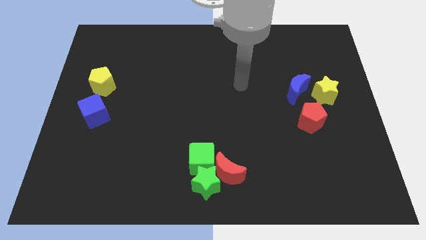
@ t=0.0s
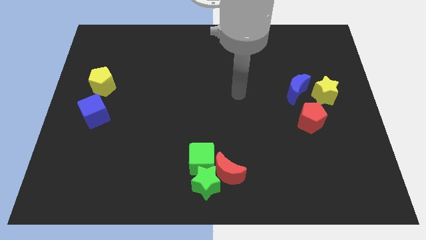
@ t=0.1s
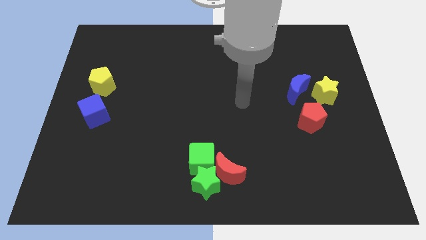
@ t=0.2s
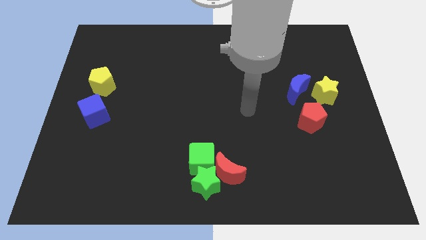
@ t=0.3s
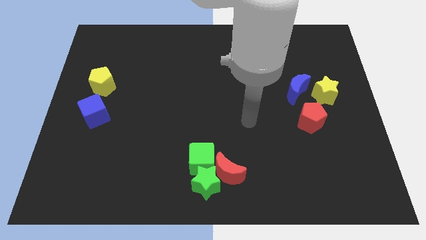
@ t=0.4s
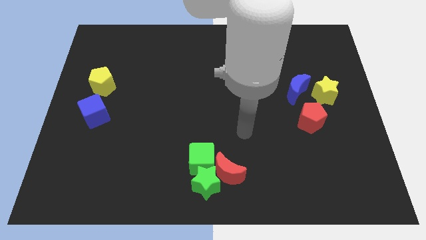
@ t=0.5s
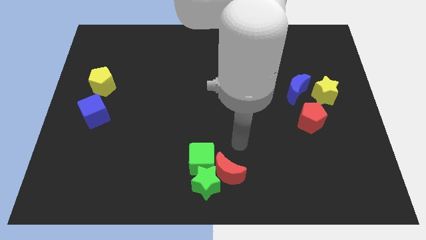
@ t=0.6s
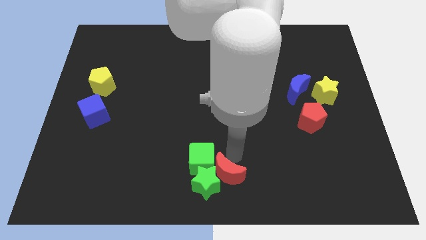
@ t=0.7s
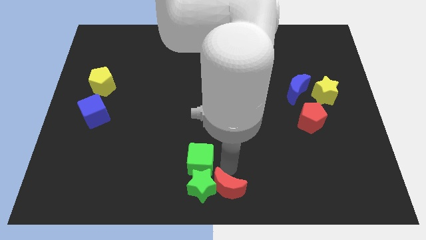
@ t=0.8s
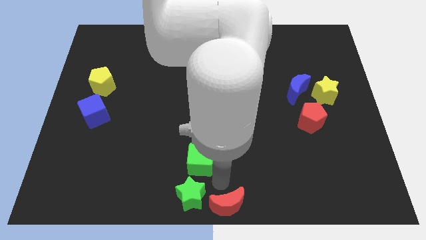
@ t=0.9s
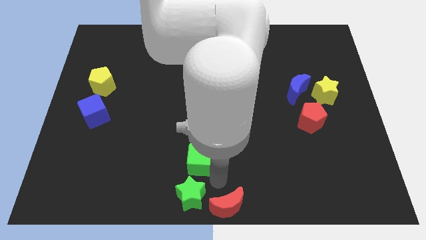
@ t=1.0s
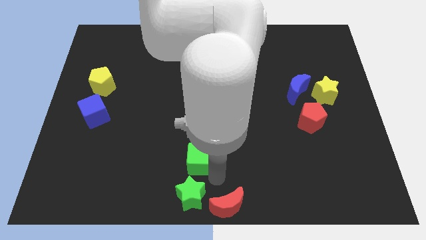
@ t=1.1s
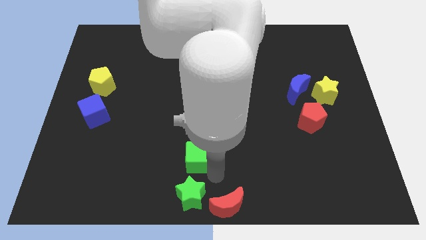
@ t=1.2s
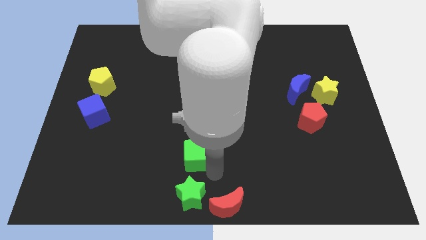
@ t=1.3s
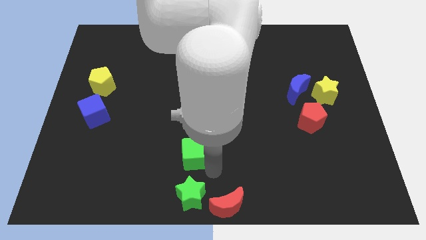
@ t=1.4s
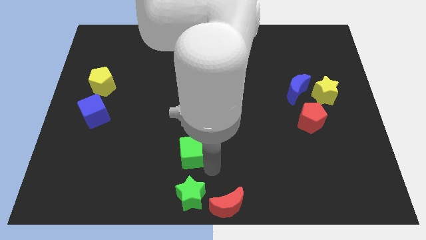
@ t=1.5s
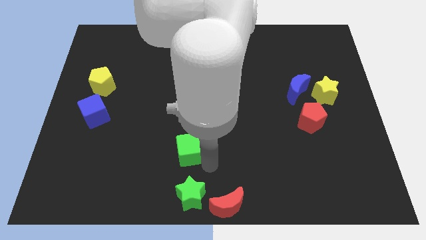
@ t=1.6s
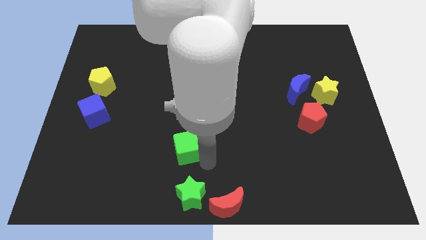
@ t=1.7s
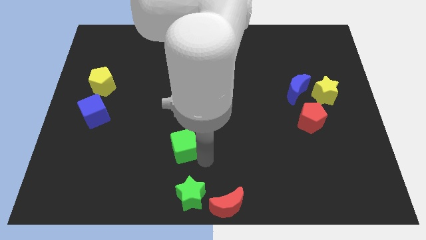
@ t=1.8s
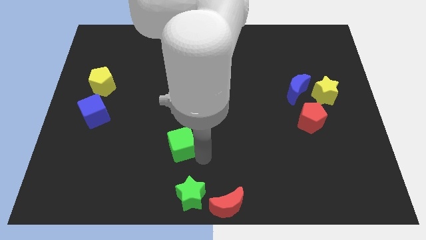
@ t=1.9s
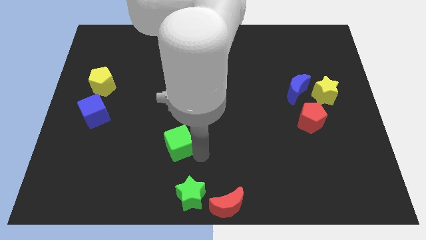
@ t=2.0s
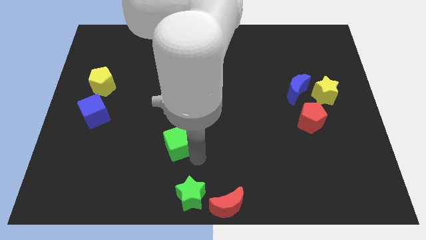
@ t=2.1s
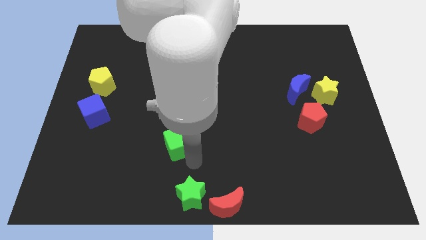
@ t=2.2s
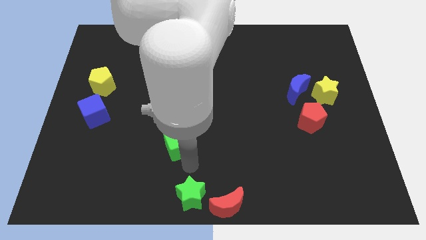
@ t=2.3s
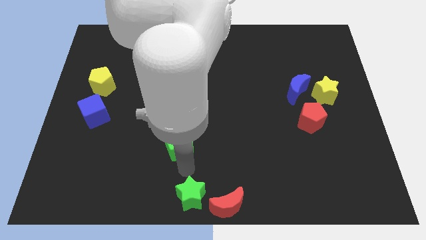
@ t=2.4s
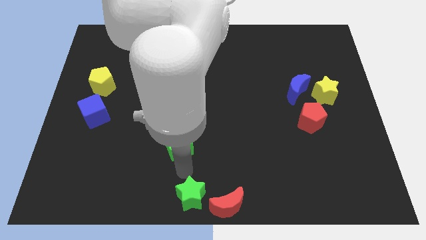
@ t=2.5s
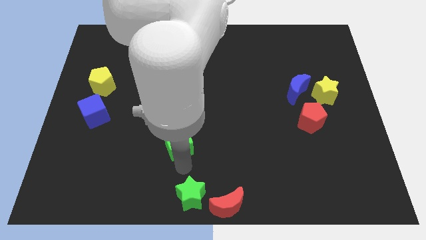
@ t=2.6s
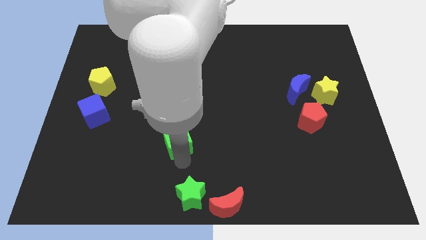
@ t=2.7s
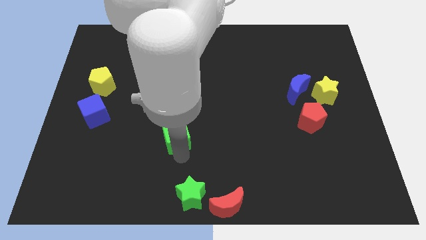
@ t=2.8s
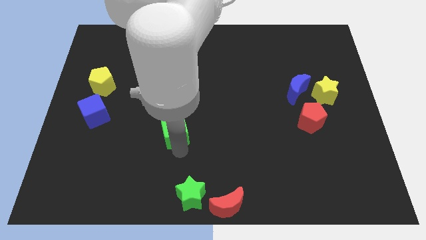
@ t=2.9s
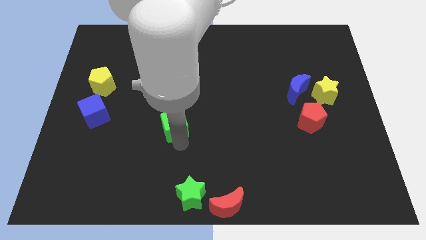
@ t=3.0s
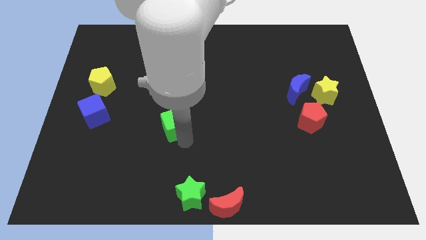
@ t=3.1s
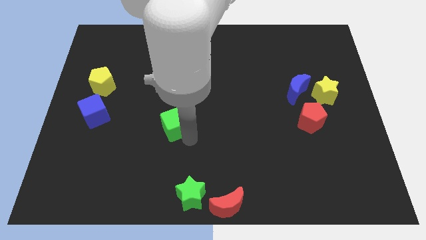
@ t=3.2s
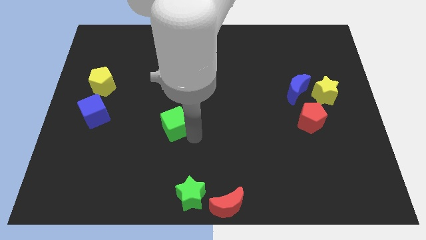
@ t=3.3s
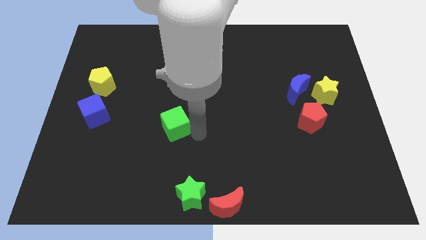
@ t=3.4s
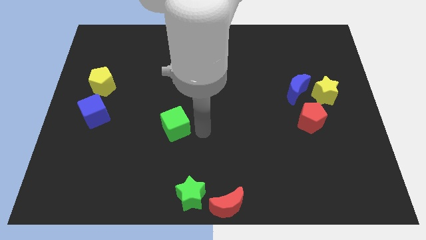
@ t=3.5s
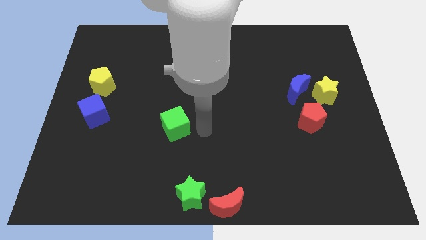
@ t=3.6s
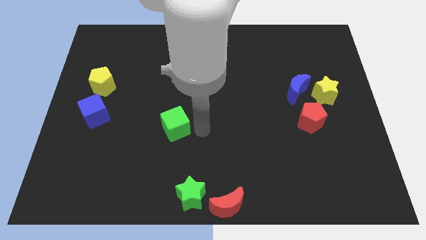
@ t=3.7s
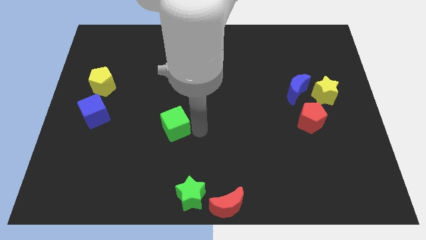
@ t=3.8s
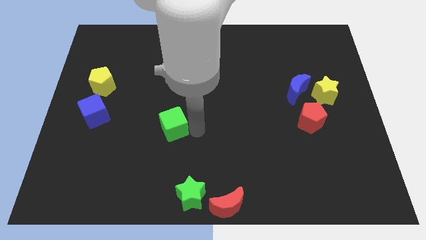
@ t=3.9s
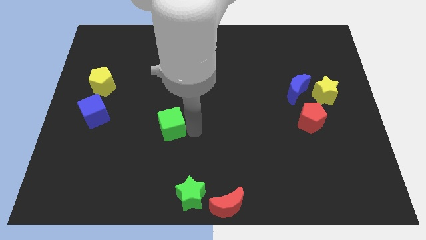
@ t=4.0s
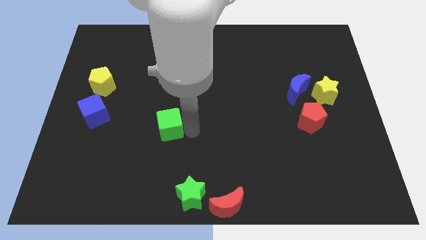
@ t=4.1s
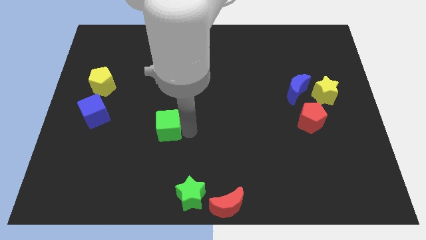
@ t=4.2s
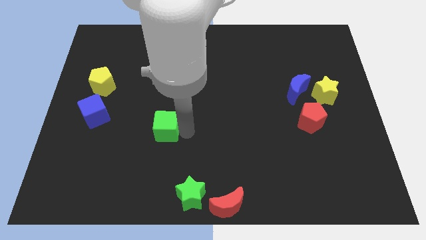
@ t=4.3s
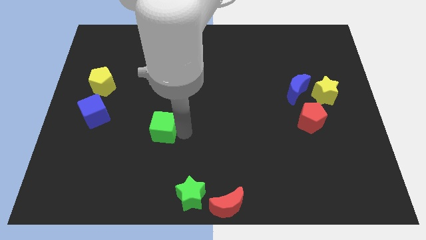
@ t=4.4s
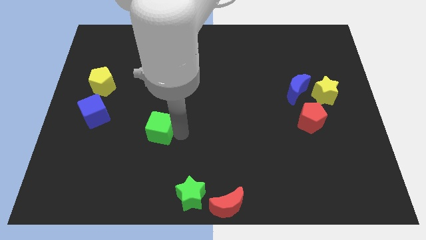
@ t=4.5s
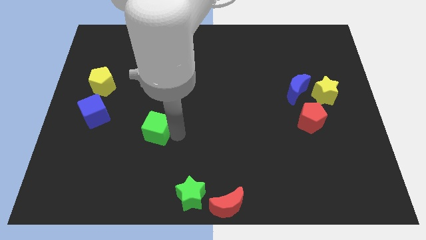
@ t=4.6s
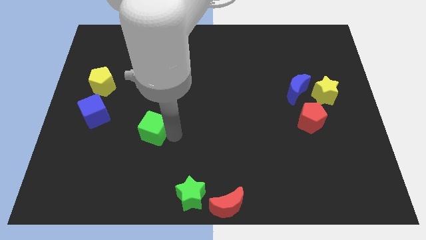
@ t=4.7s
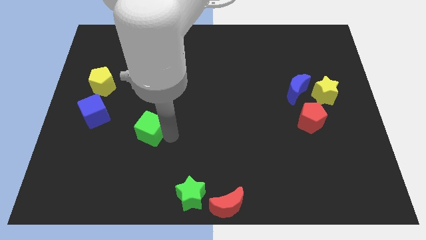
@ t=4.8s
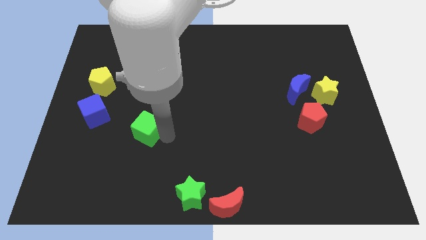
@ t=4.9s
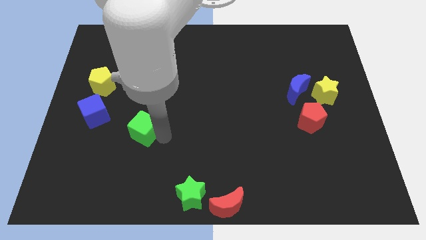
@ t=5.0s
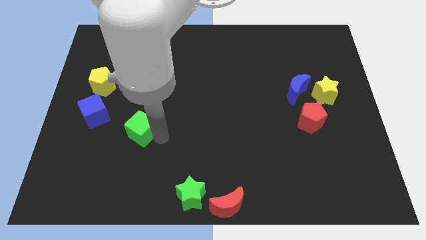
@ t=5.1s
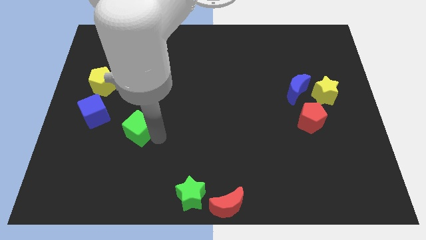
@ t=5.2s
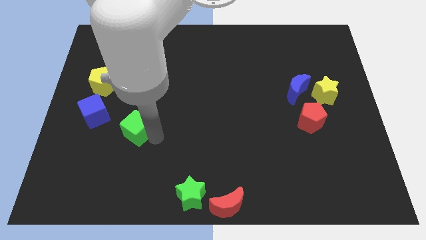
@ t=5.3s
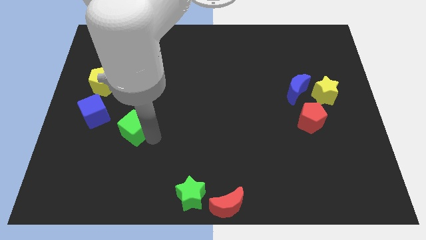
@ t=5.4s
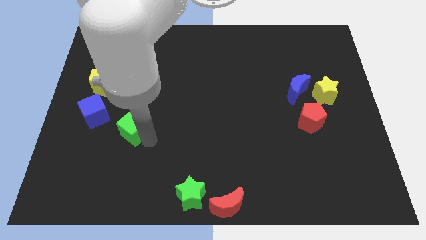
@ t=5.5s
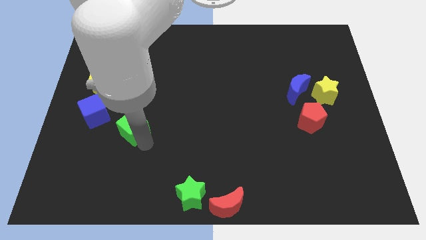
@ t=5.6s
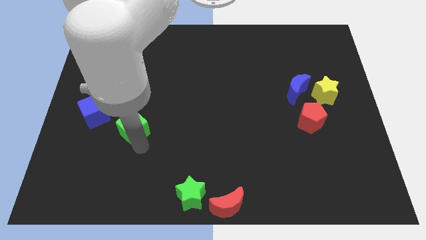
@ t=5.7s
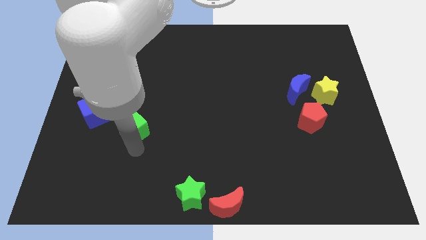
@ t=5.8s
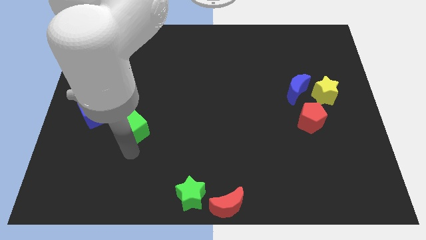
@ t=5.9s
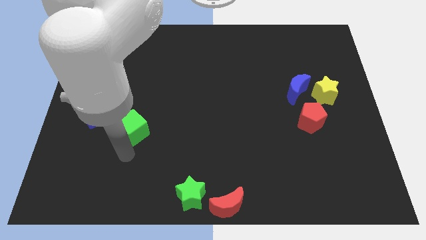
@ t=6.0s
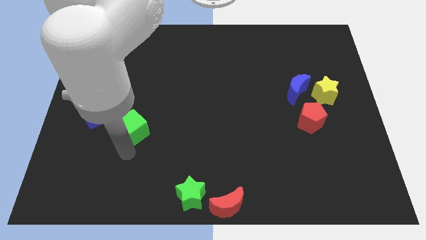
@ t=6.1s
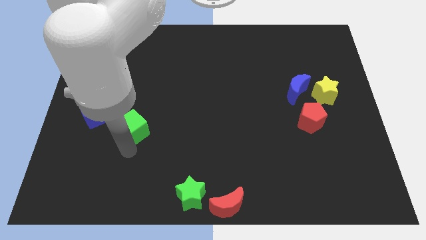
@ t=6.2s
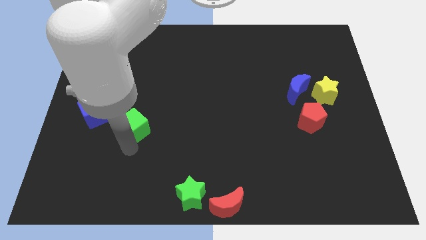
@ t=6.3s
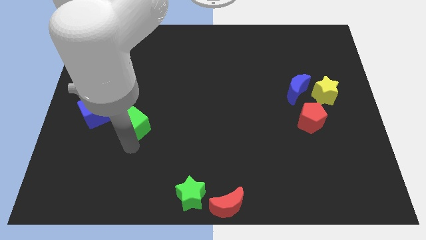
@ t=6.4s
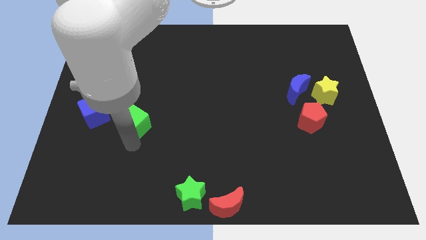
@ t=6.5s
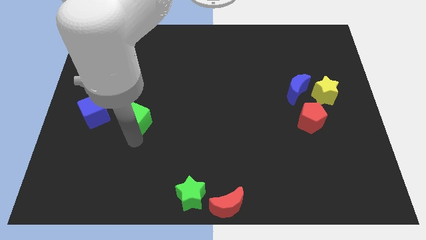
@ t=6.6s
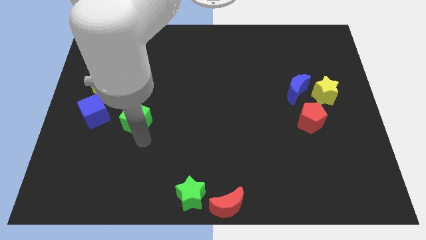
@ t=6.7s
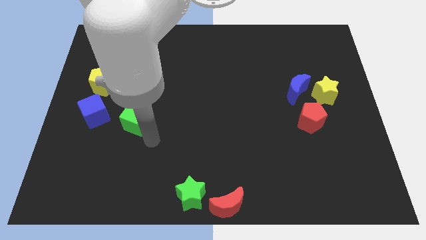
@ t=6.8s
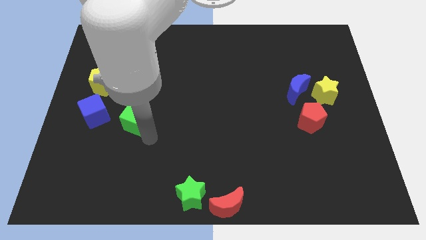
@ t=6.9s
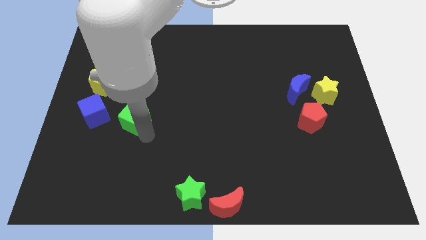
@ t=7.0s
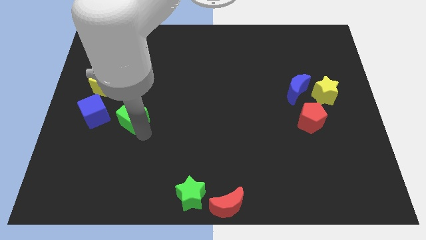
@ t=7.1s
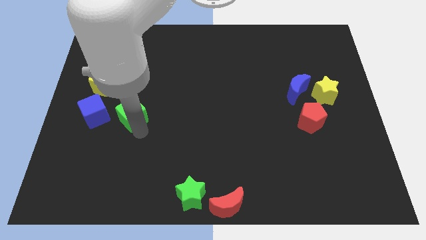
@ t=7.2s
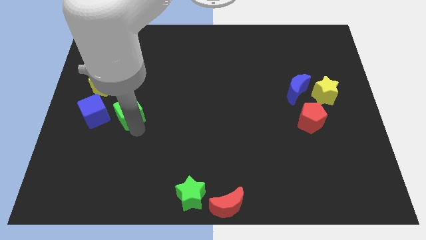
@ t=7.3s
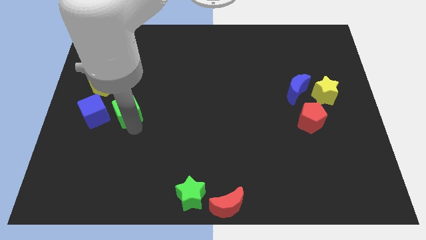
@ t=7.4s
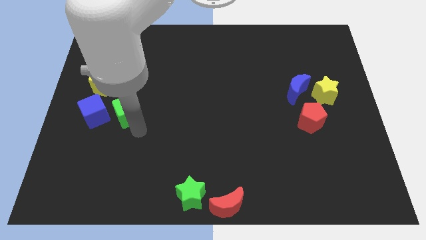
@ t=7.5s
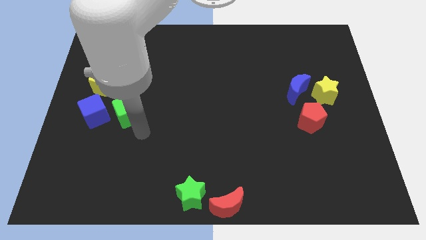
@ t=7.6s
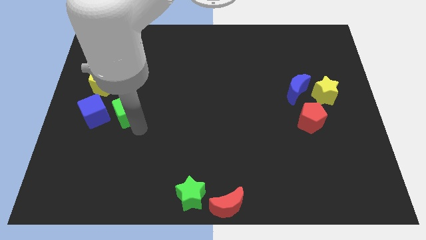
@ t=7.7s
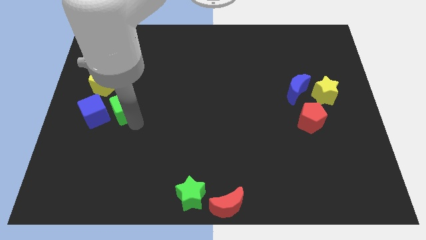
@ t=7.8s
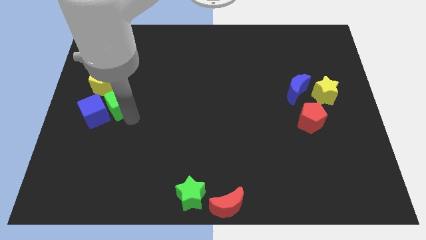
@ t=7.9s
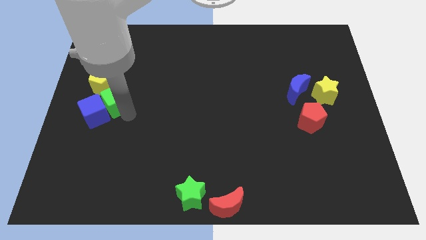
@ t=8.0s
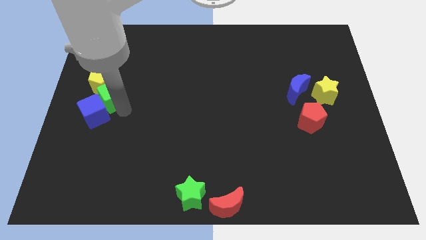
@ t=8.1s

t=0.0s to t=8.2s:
put the green cube next to the yellow pentagon
